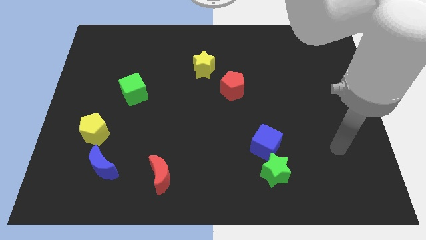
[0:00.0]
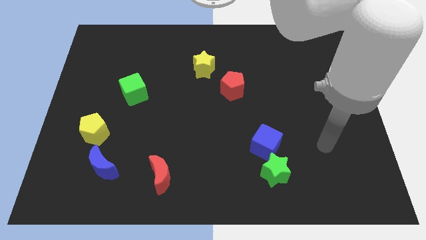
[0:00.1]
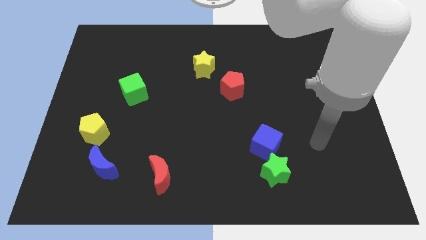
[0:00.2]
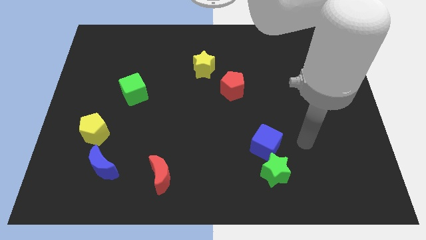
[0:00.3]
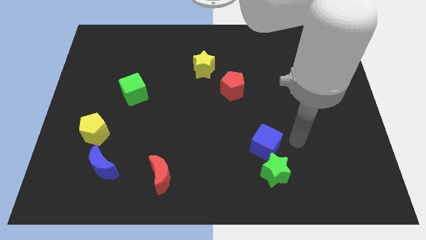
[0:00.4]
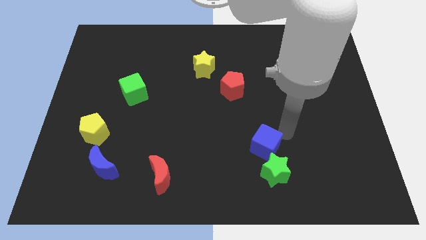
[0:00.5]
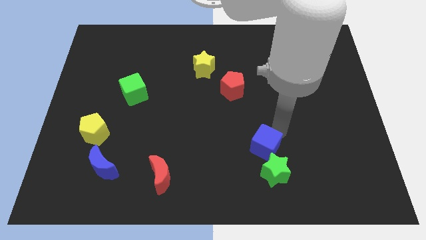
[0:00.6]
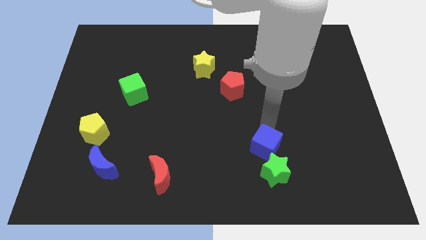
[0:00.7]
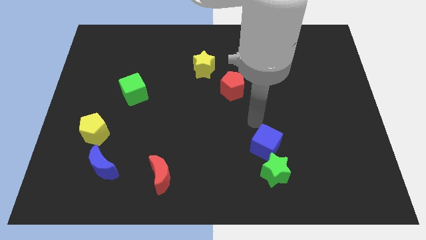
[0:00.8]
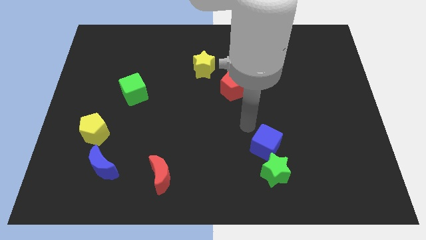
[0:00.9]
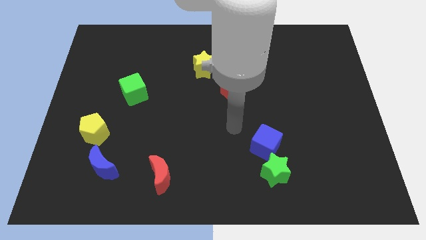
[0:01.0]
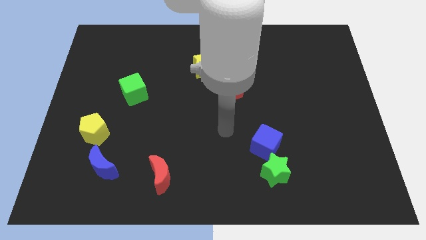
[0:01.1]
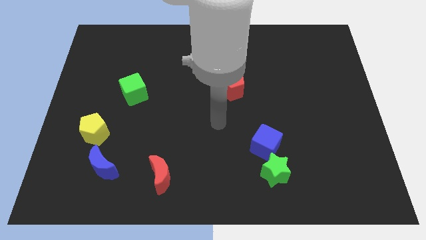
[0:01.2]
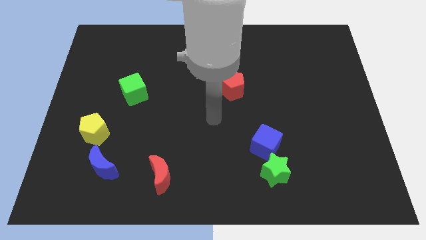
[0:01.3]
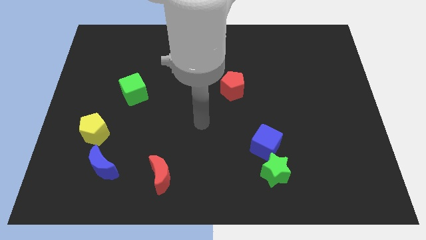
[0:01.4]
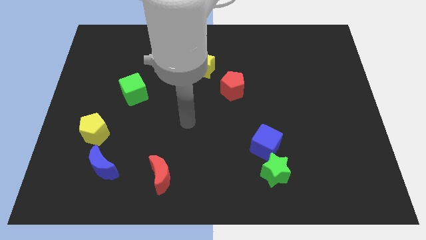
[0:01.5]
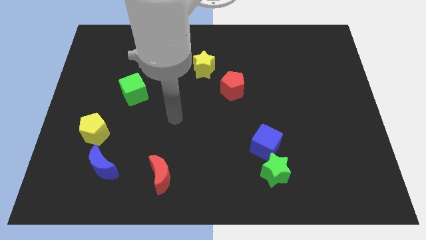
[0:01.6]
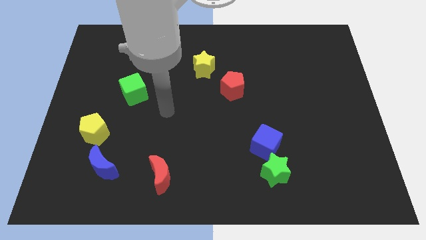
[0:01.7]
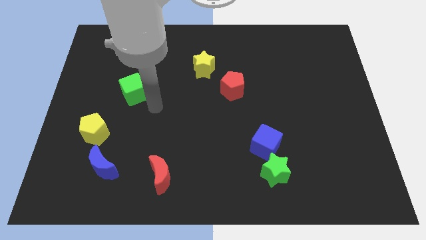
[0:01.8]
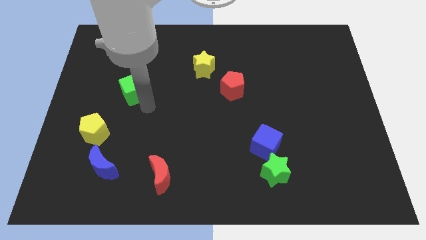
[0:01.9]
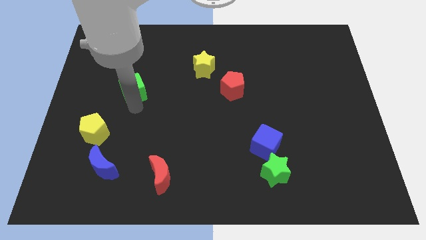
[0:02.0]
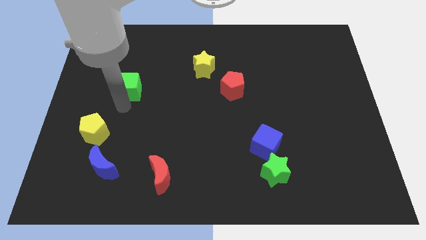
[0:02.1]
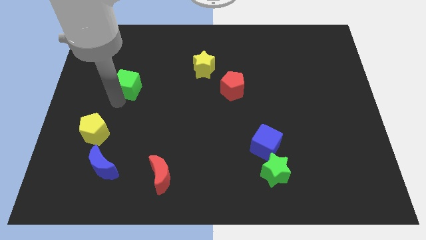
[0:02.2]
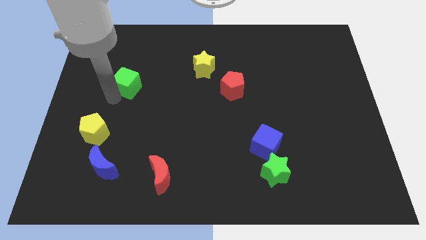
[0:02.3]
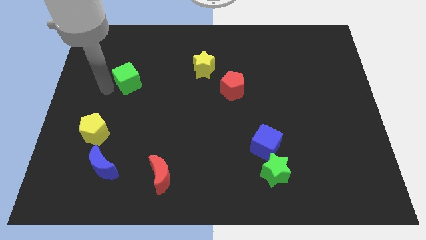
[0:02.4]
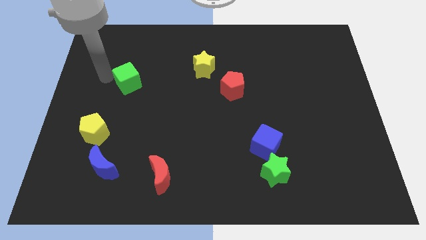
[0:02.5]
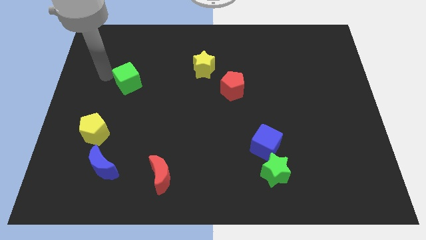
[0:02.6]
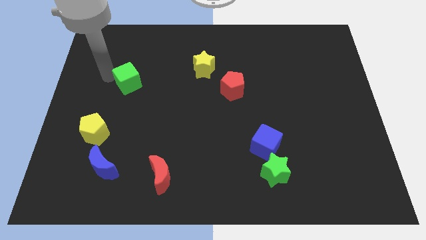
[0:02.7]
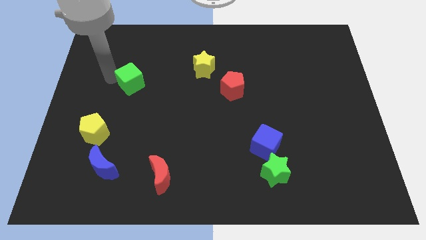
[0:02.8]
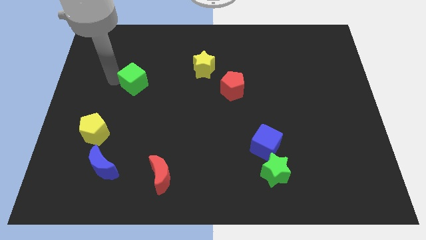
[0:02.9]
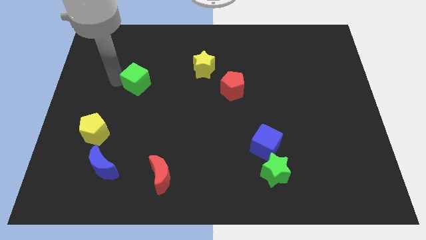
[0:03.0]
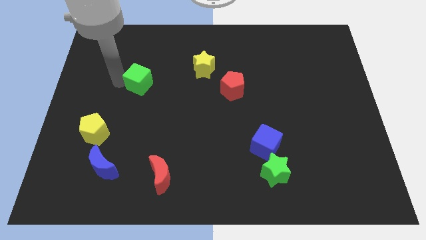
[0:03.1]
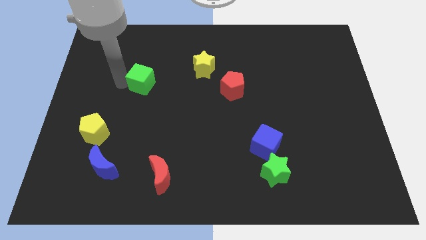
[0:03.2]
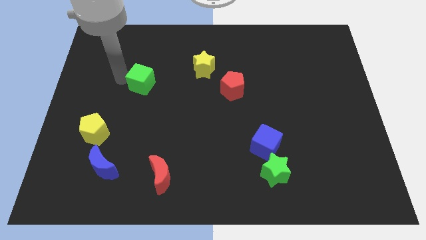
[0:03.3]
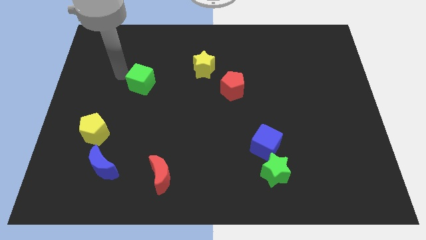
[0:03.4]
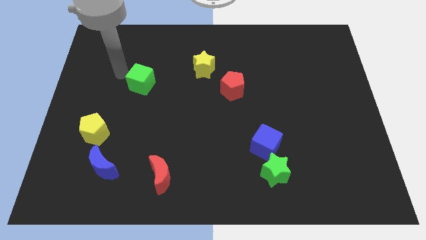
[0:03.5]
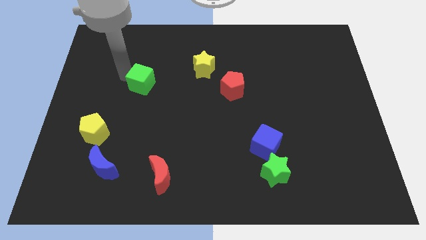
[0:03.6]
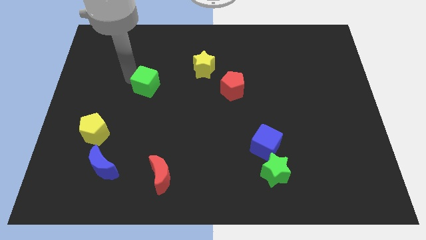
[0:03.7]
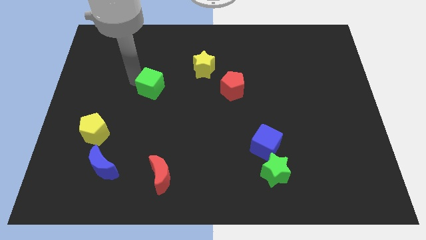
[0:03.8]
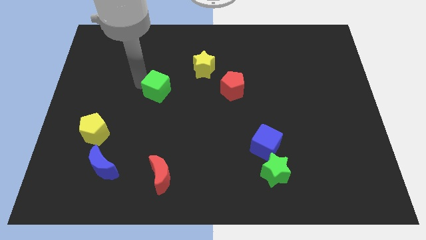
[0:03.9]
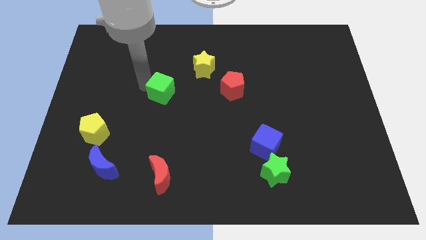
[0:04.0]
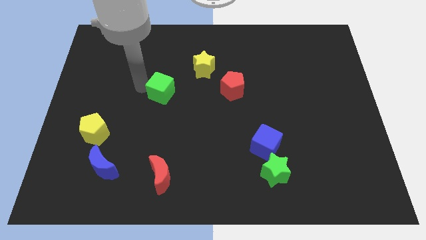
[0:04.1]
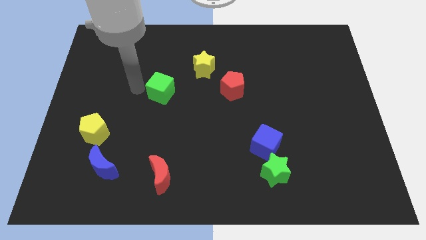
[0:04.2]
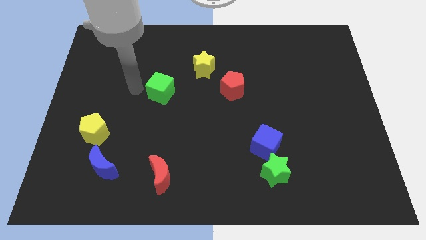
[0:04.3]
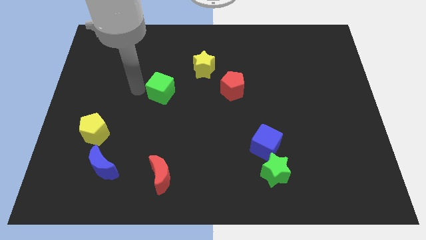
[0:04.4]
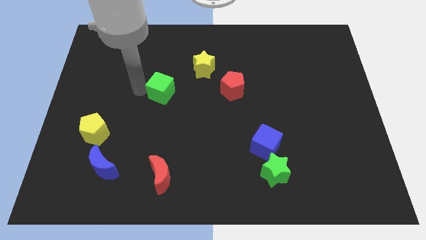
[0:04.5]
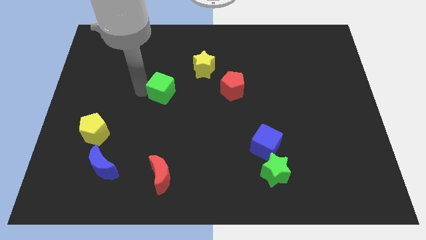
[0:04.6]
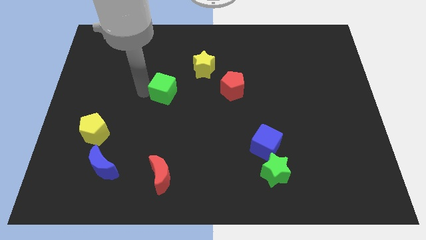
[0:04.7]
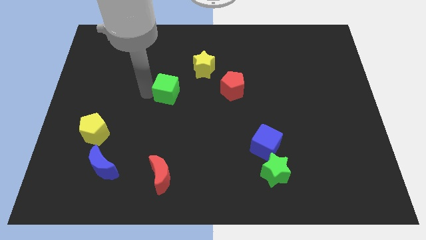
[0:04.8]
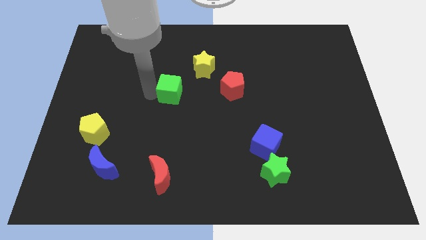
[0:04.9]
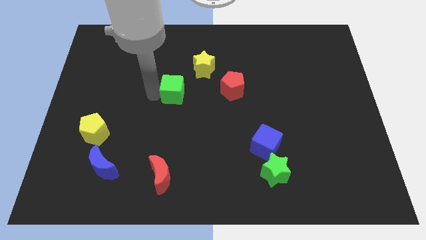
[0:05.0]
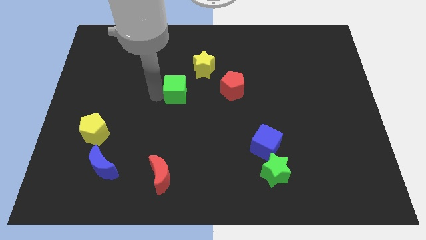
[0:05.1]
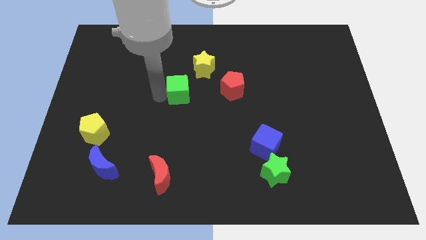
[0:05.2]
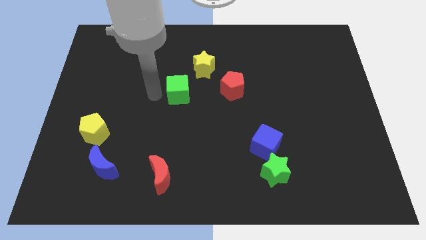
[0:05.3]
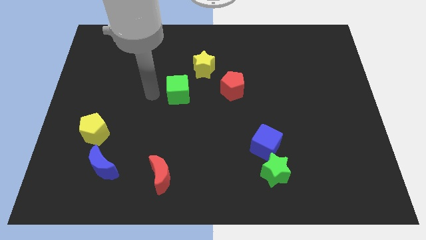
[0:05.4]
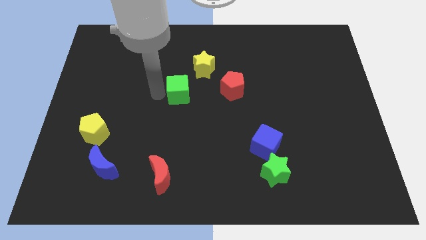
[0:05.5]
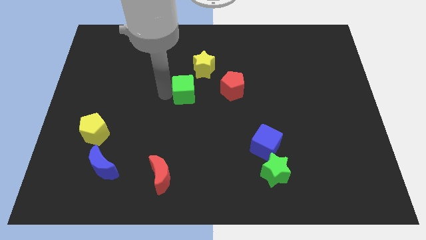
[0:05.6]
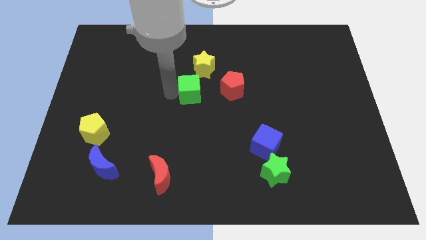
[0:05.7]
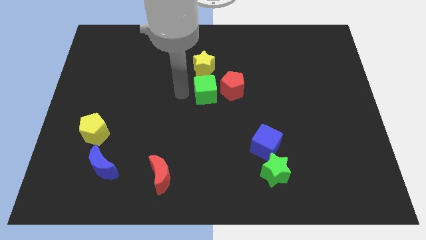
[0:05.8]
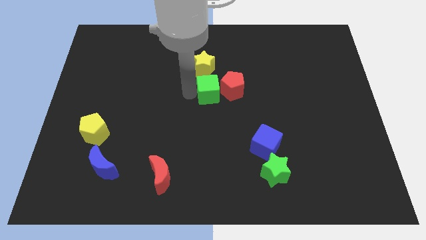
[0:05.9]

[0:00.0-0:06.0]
put the green cube close to the red pentagon

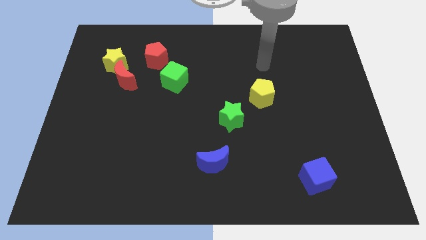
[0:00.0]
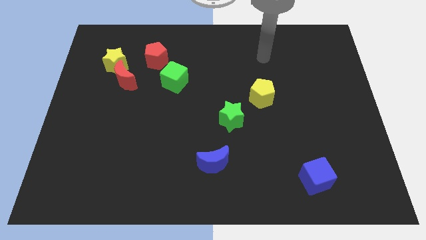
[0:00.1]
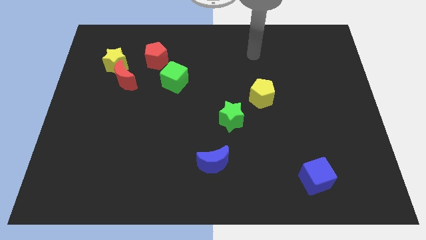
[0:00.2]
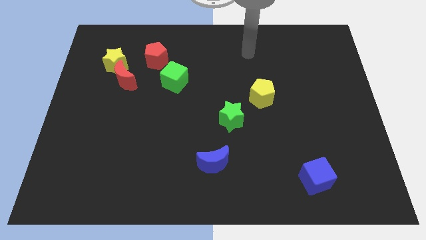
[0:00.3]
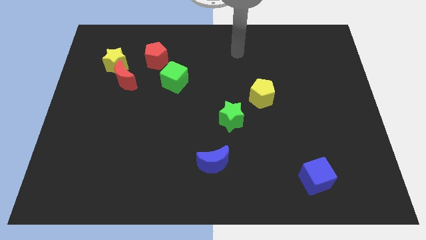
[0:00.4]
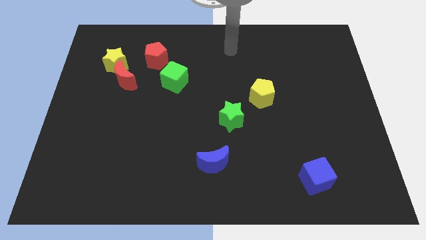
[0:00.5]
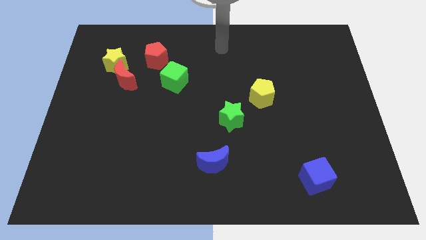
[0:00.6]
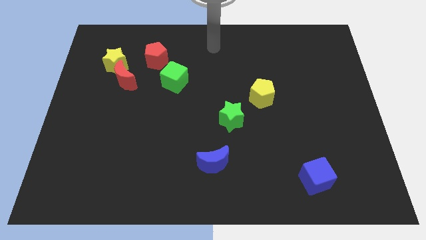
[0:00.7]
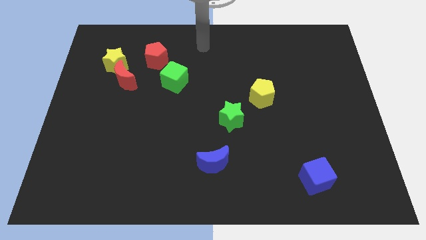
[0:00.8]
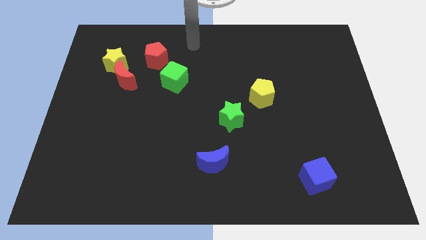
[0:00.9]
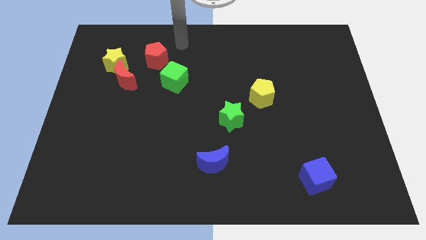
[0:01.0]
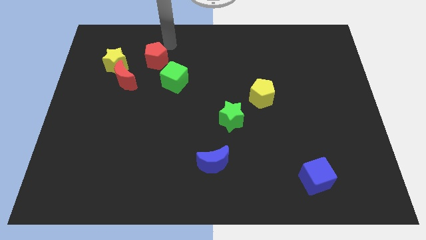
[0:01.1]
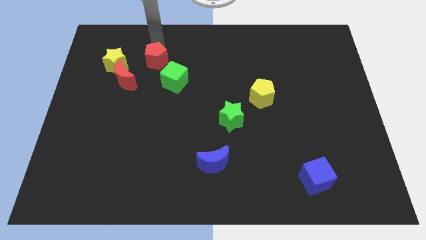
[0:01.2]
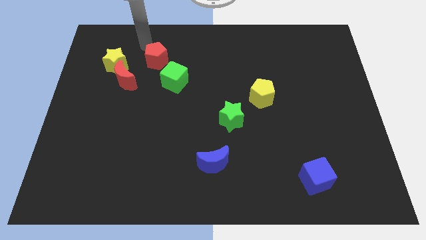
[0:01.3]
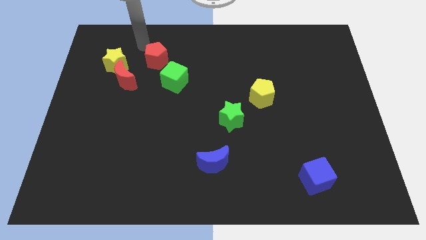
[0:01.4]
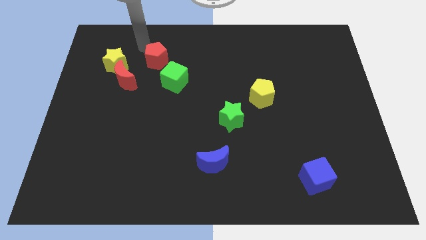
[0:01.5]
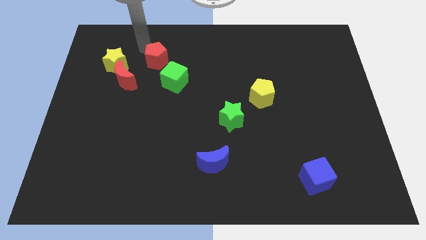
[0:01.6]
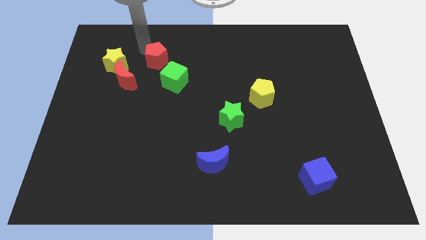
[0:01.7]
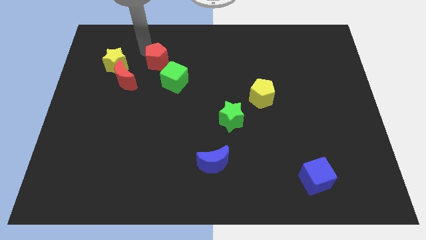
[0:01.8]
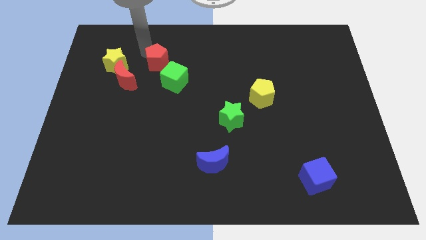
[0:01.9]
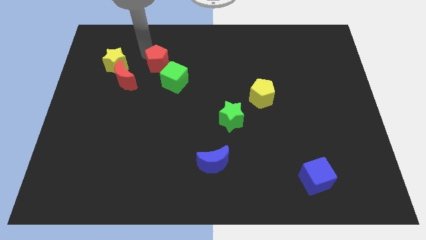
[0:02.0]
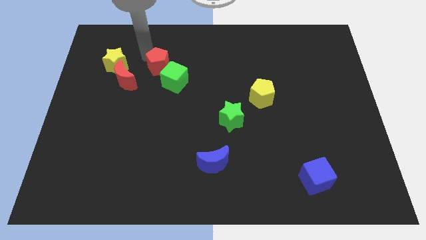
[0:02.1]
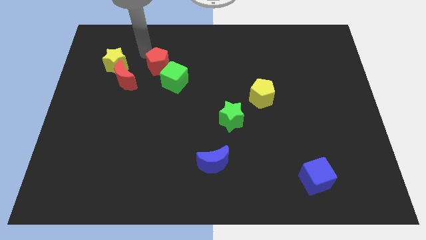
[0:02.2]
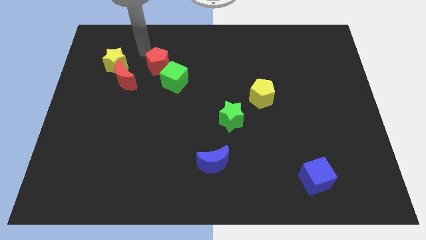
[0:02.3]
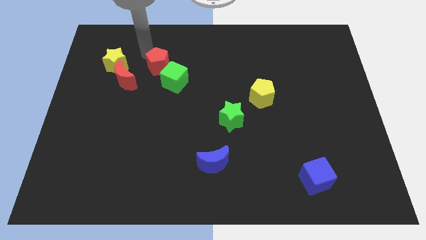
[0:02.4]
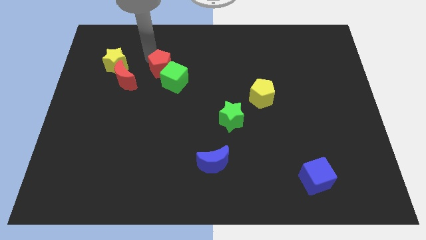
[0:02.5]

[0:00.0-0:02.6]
put the red pentagon to the green cube
